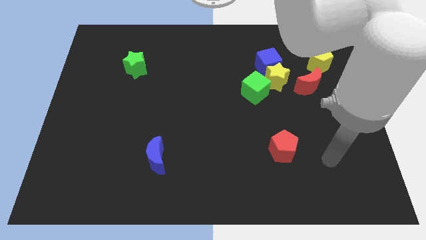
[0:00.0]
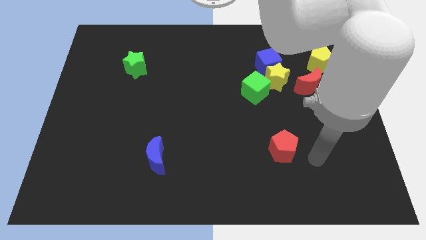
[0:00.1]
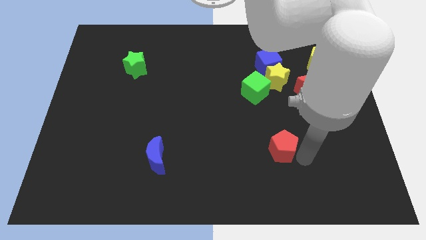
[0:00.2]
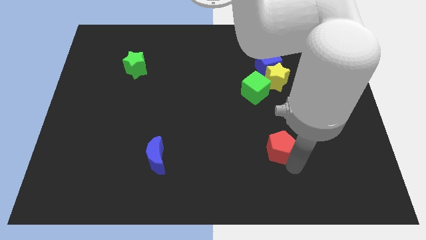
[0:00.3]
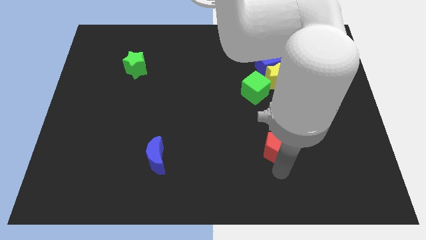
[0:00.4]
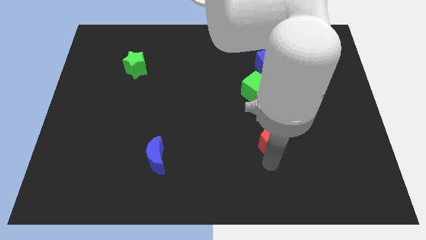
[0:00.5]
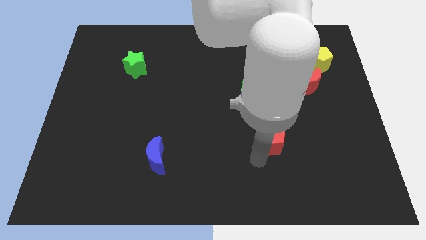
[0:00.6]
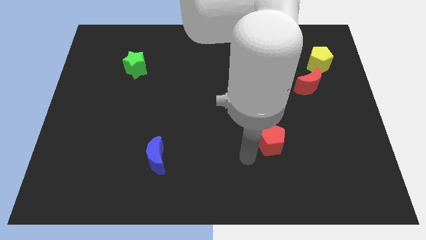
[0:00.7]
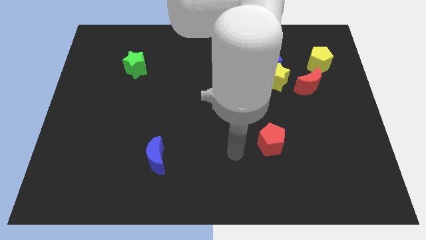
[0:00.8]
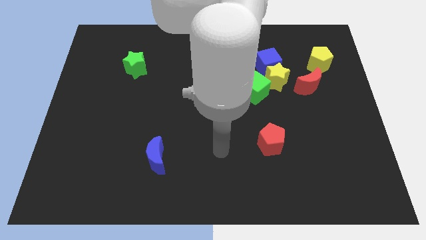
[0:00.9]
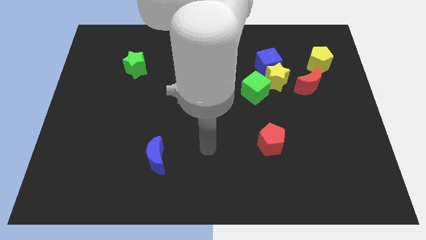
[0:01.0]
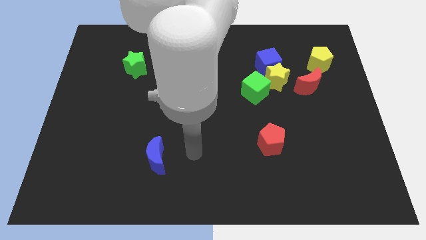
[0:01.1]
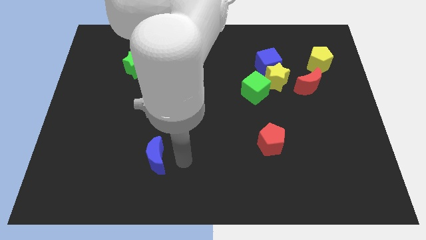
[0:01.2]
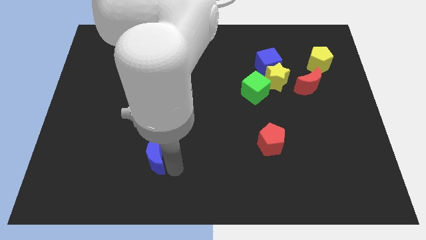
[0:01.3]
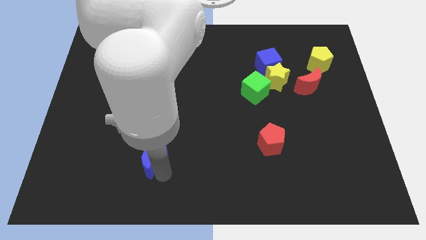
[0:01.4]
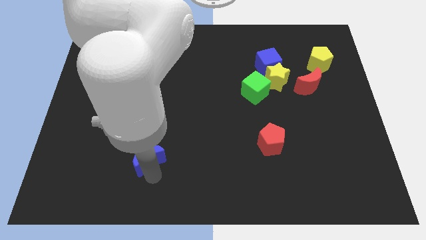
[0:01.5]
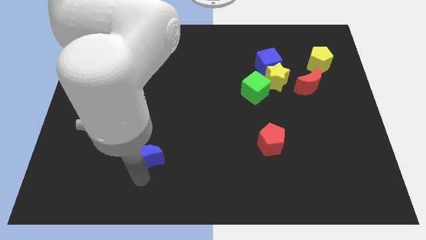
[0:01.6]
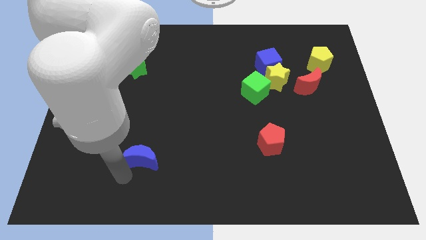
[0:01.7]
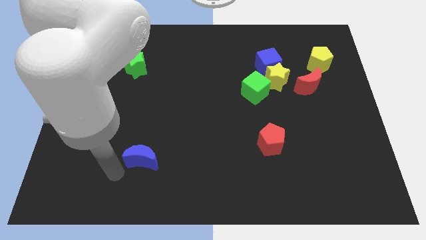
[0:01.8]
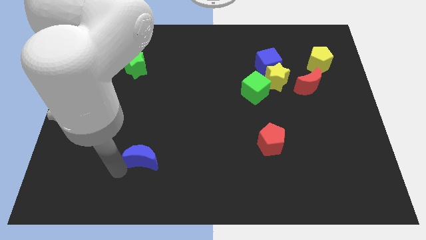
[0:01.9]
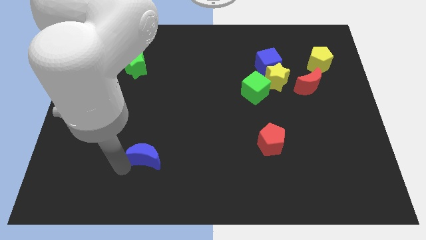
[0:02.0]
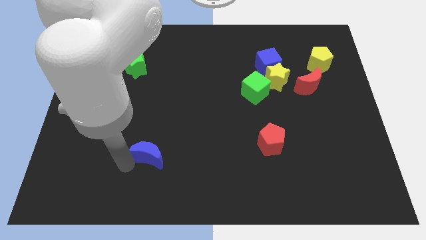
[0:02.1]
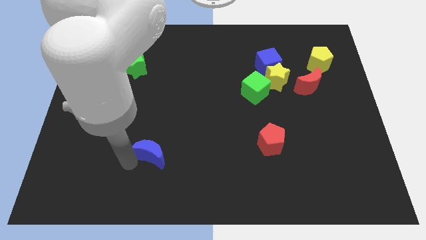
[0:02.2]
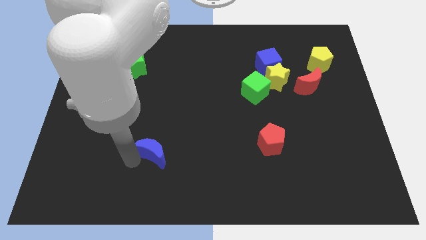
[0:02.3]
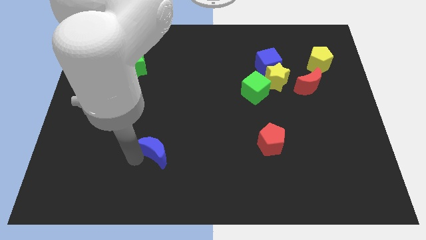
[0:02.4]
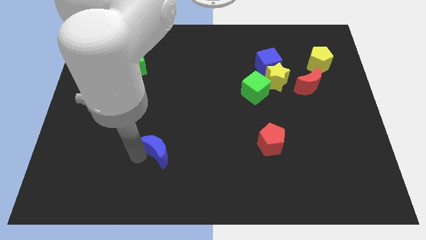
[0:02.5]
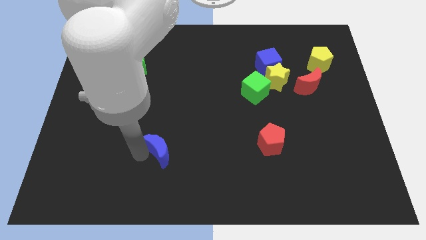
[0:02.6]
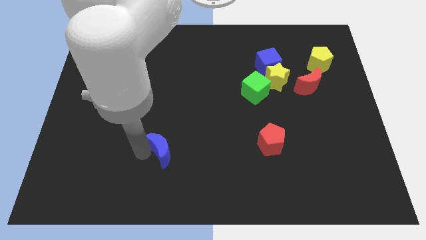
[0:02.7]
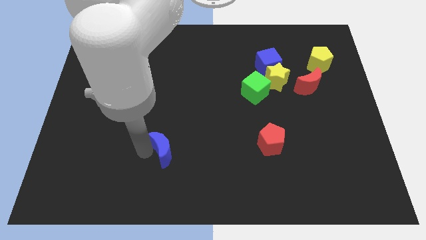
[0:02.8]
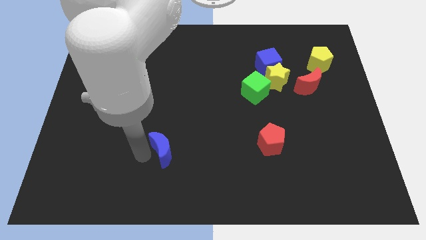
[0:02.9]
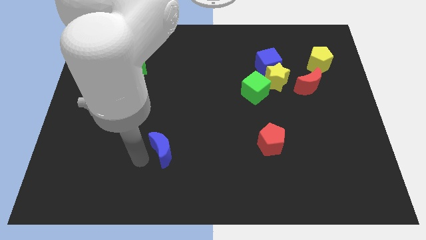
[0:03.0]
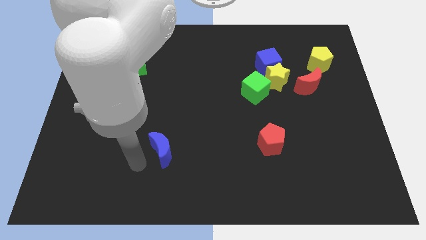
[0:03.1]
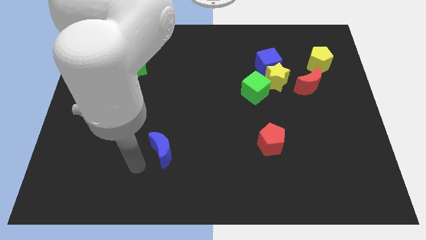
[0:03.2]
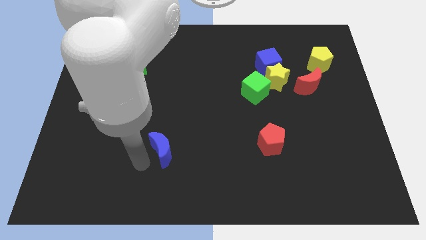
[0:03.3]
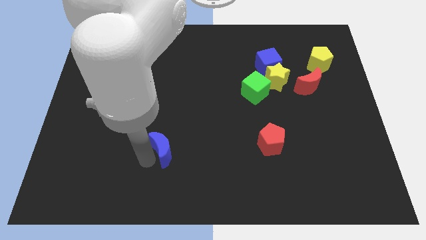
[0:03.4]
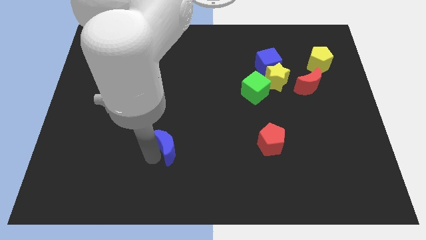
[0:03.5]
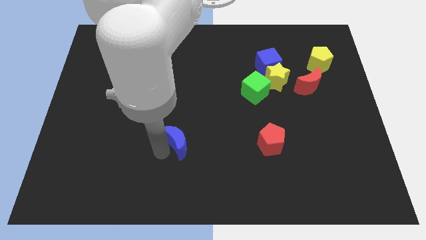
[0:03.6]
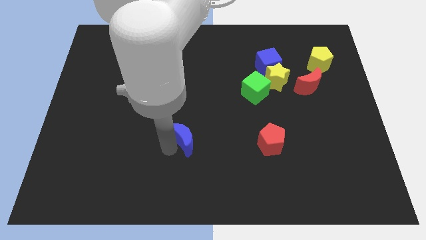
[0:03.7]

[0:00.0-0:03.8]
slide the blue moon up and to the right diagonally a bit

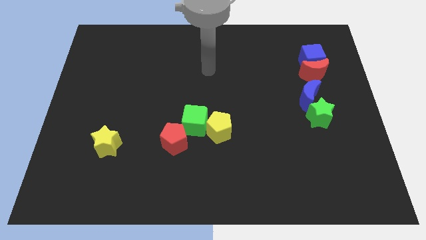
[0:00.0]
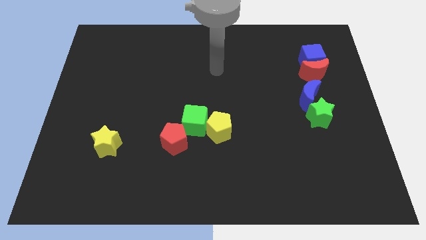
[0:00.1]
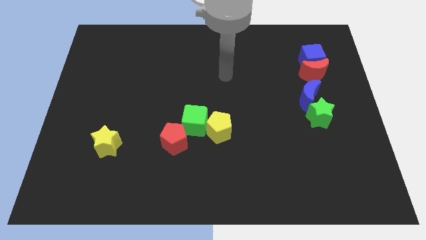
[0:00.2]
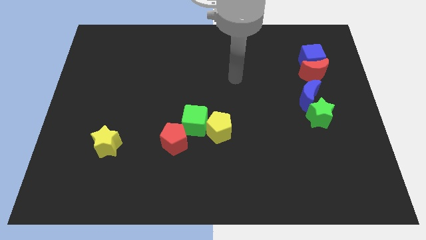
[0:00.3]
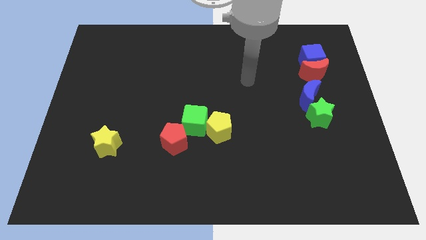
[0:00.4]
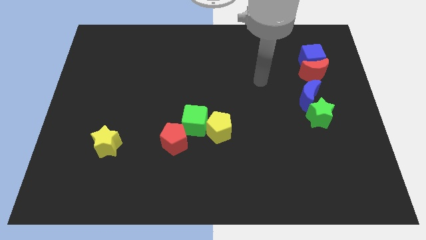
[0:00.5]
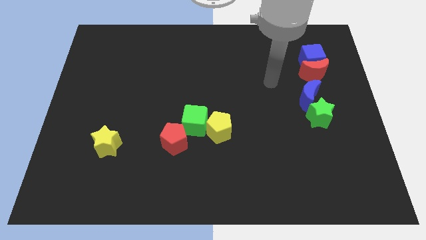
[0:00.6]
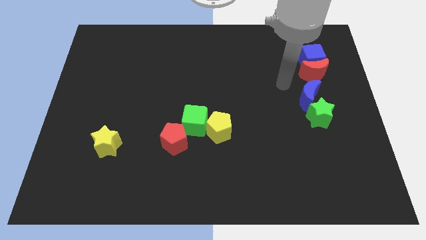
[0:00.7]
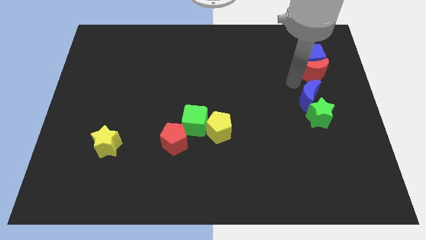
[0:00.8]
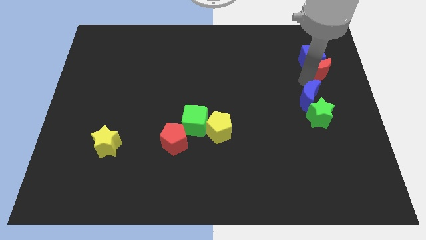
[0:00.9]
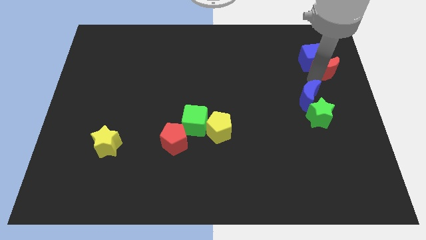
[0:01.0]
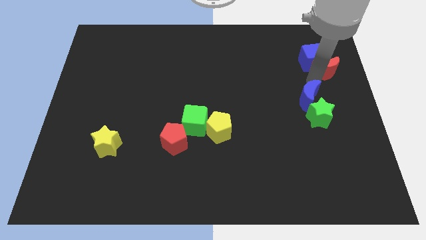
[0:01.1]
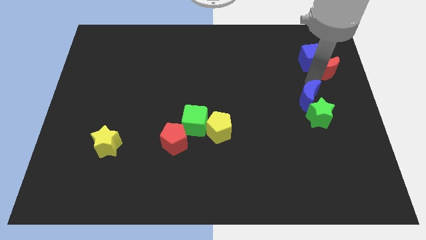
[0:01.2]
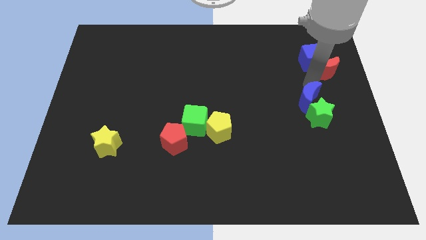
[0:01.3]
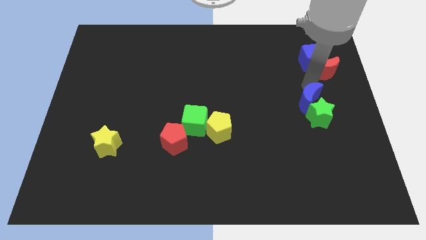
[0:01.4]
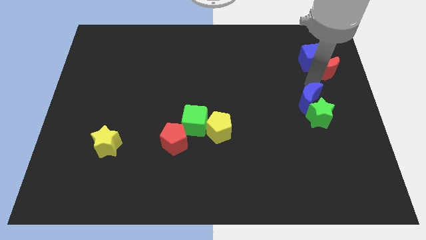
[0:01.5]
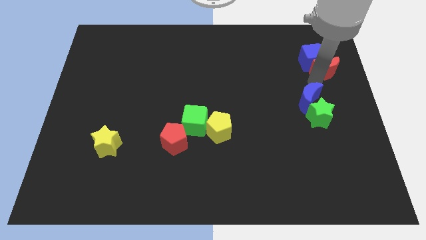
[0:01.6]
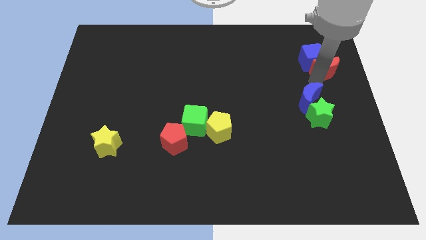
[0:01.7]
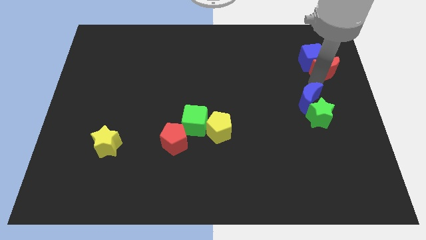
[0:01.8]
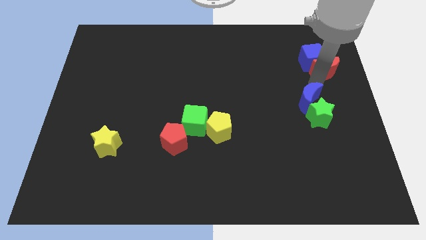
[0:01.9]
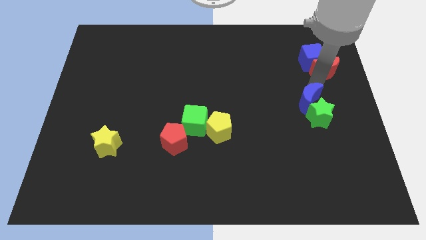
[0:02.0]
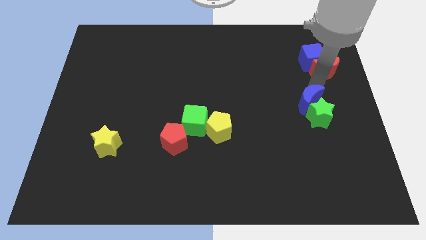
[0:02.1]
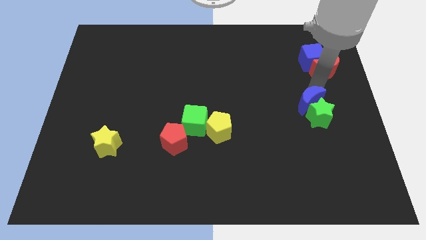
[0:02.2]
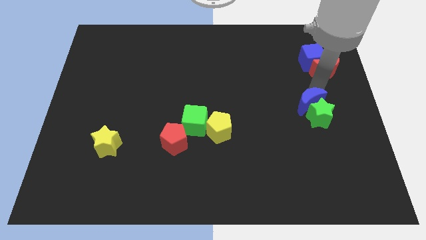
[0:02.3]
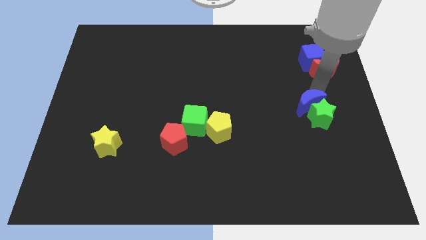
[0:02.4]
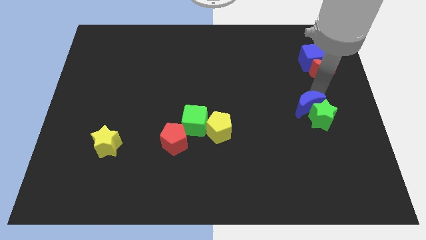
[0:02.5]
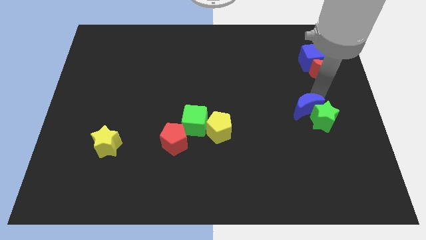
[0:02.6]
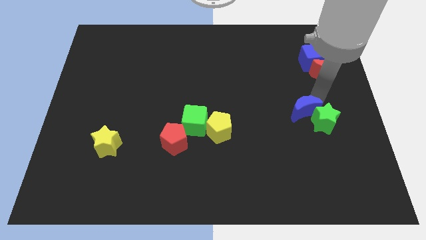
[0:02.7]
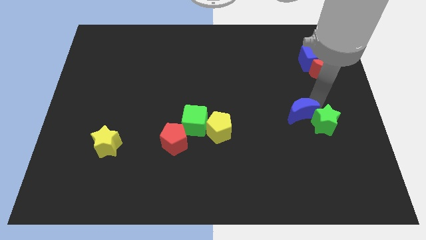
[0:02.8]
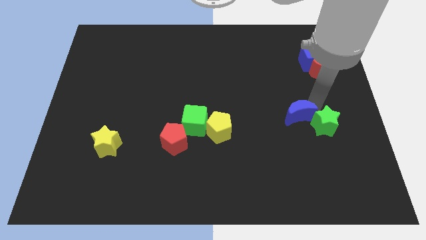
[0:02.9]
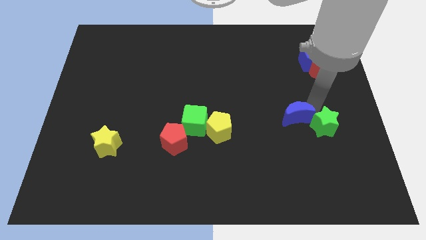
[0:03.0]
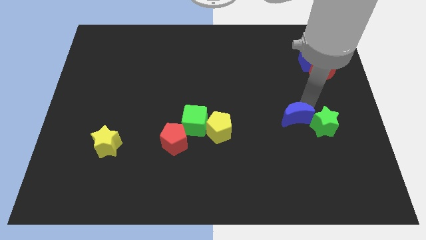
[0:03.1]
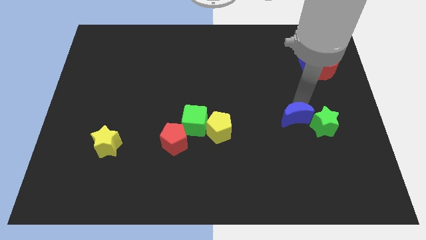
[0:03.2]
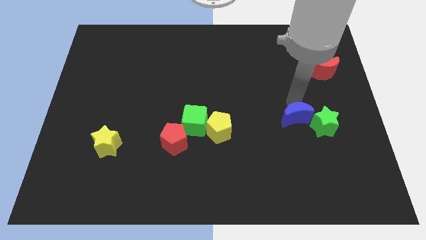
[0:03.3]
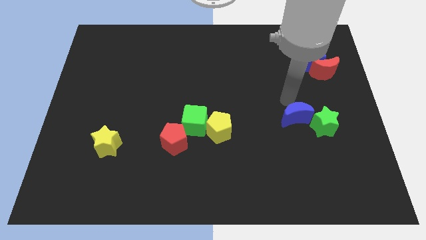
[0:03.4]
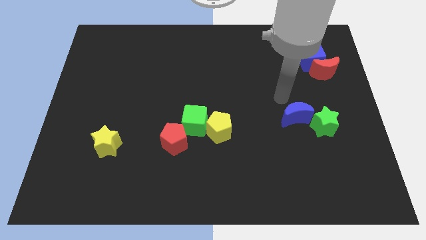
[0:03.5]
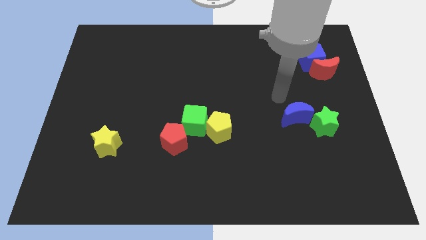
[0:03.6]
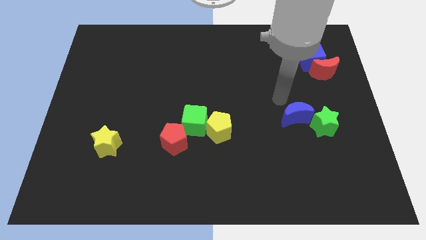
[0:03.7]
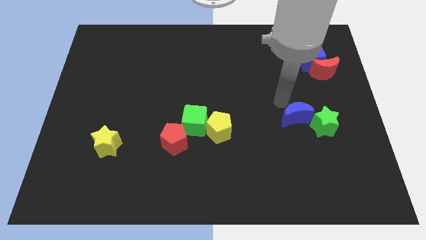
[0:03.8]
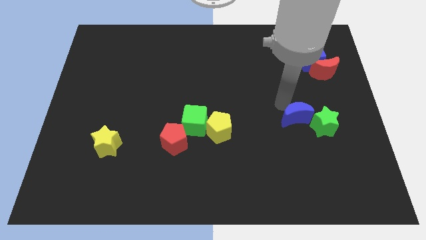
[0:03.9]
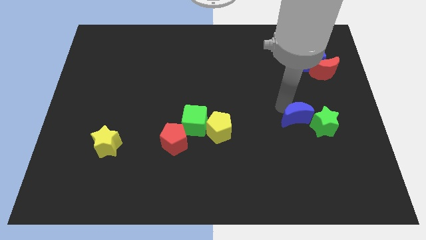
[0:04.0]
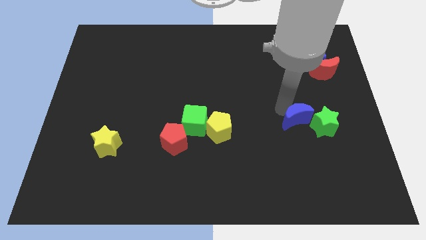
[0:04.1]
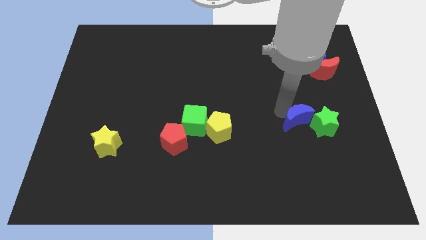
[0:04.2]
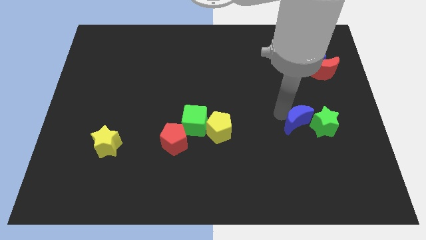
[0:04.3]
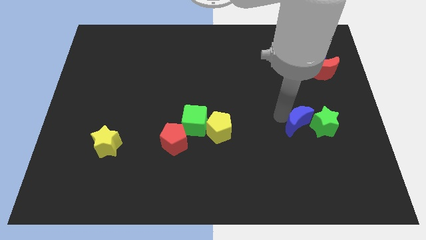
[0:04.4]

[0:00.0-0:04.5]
slightly slide the blue moon down
